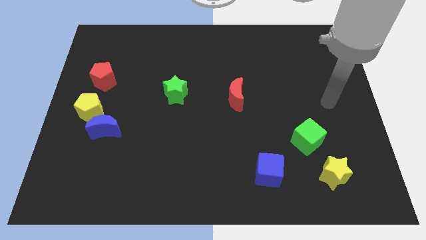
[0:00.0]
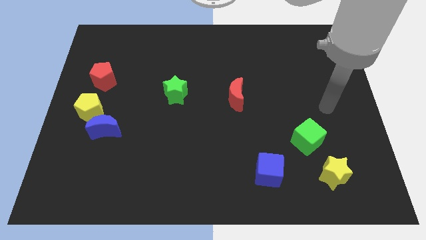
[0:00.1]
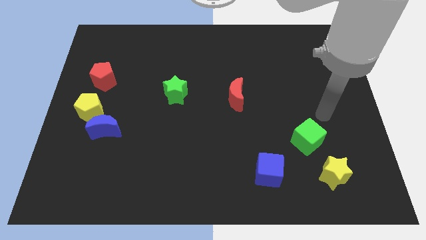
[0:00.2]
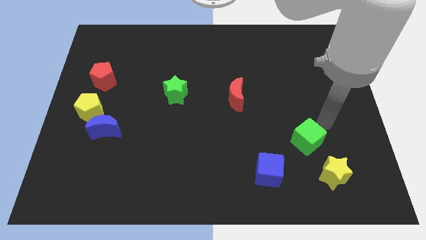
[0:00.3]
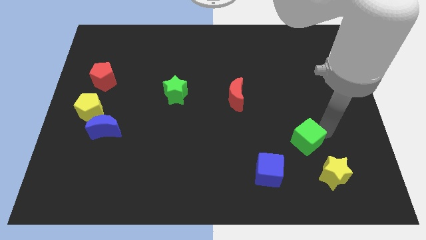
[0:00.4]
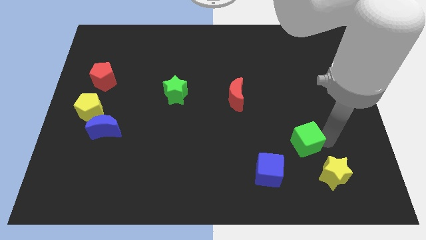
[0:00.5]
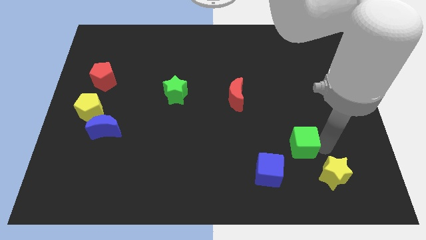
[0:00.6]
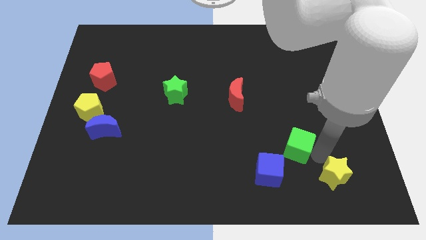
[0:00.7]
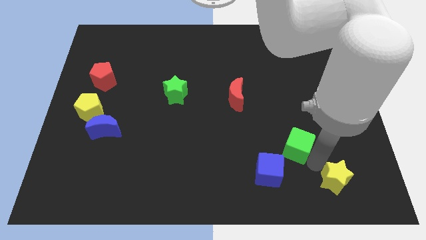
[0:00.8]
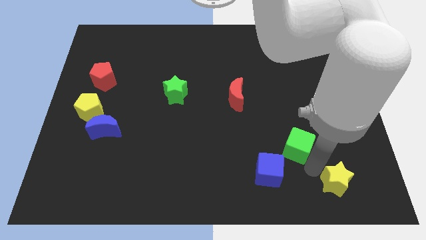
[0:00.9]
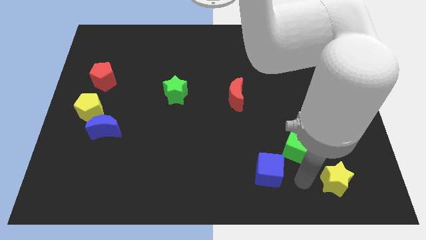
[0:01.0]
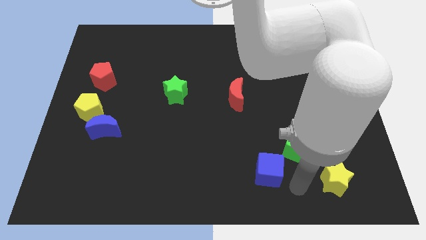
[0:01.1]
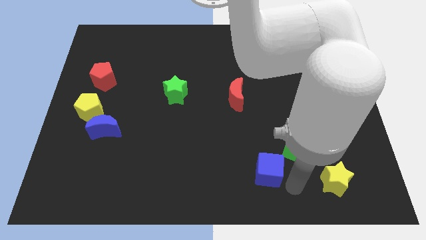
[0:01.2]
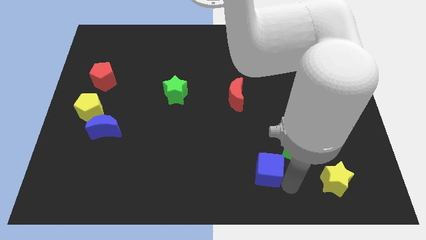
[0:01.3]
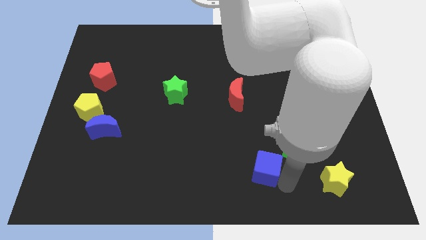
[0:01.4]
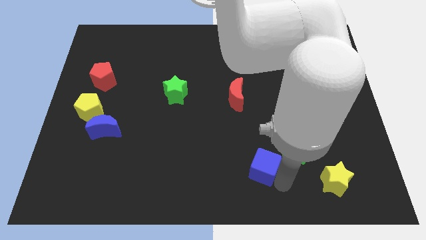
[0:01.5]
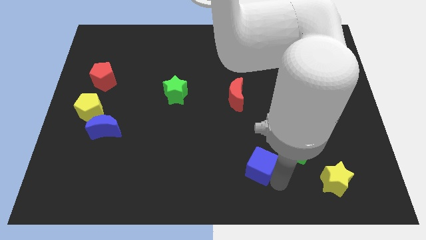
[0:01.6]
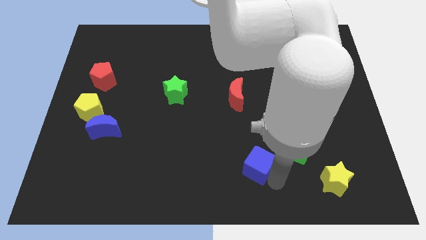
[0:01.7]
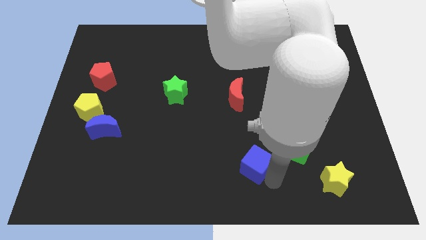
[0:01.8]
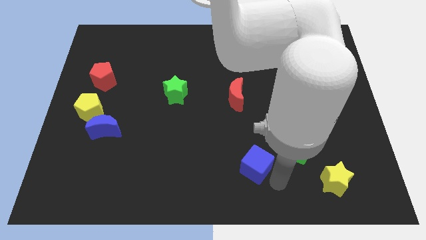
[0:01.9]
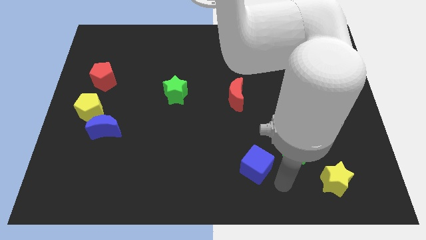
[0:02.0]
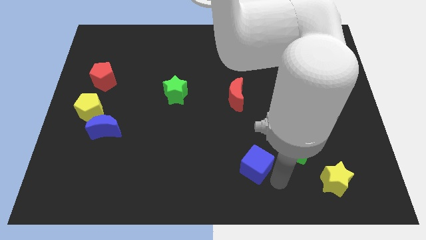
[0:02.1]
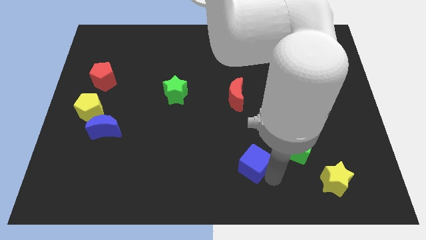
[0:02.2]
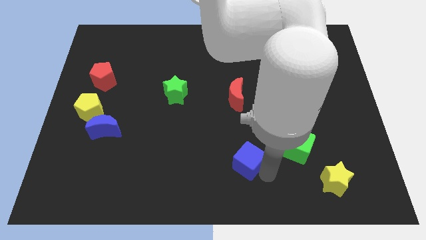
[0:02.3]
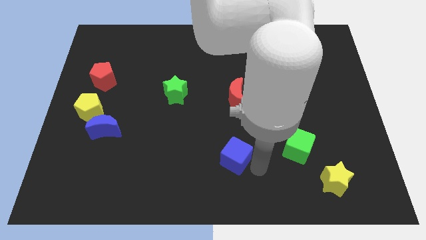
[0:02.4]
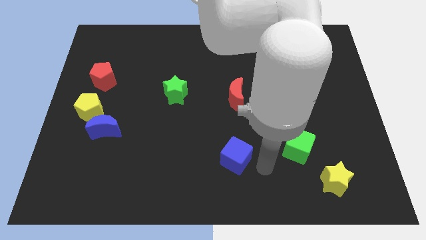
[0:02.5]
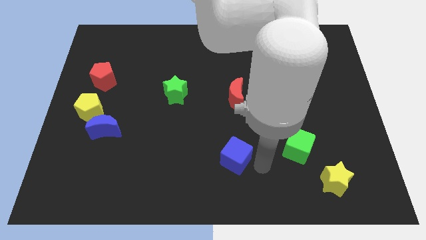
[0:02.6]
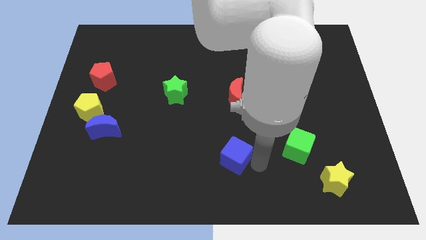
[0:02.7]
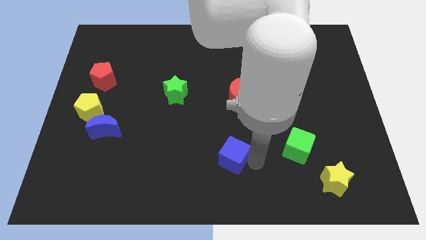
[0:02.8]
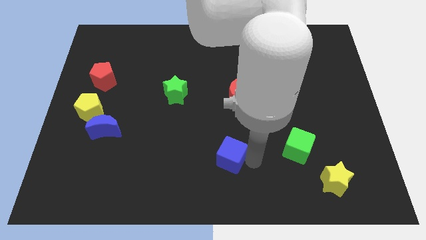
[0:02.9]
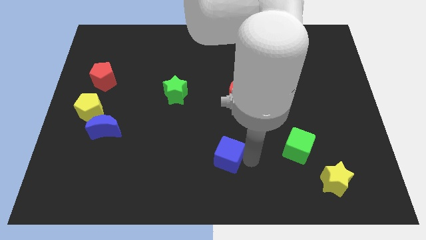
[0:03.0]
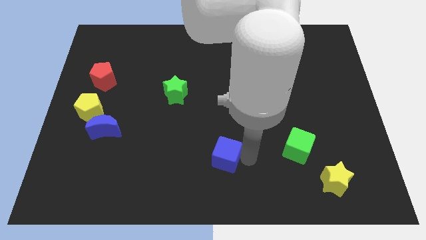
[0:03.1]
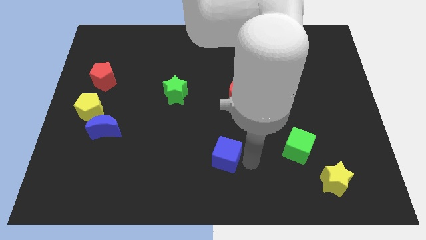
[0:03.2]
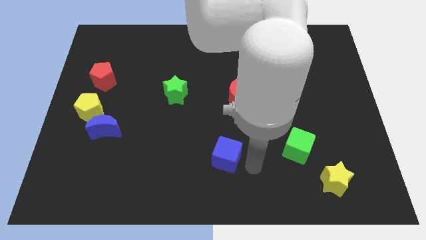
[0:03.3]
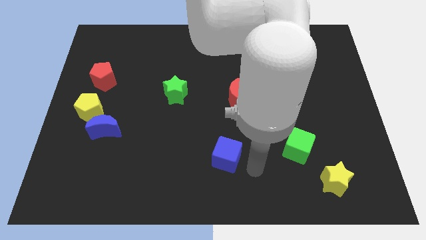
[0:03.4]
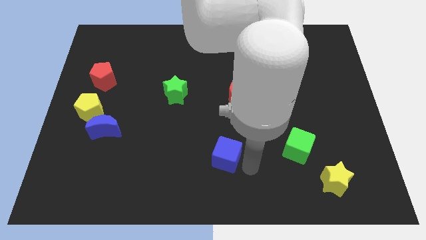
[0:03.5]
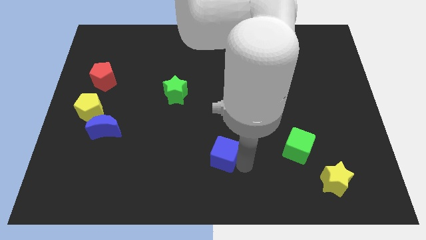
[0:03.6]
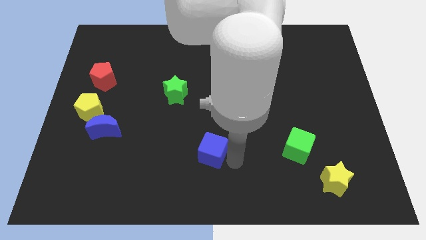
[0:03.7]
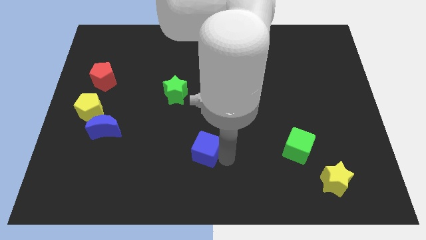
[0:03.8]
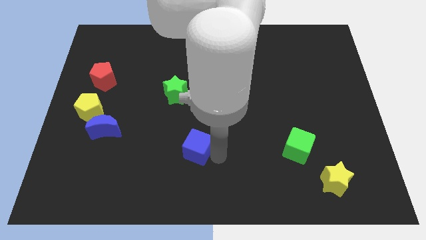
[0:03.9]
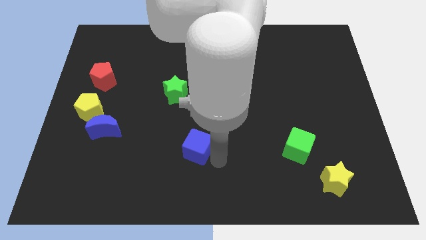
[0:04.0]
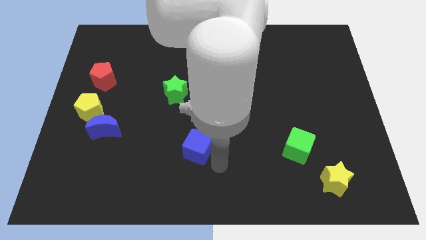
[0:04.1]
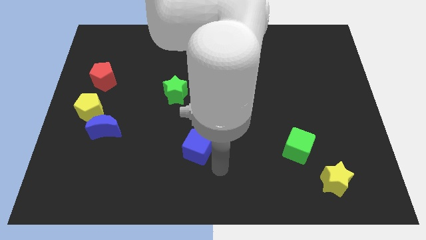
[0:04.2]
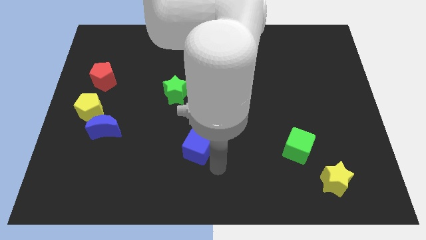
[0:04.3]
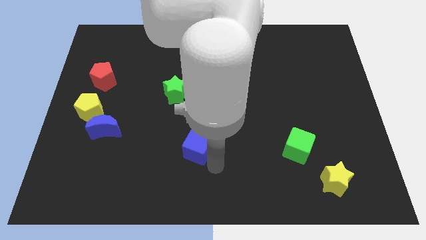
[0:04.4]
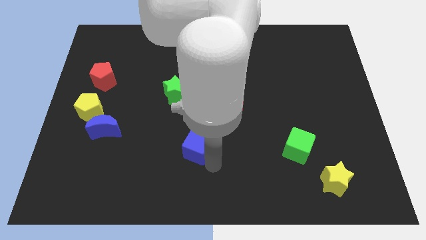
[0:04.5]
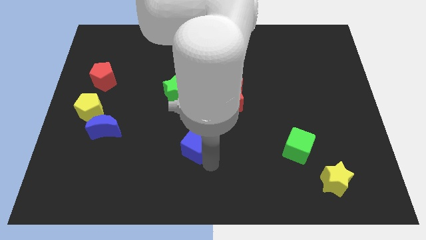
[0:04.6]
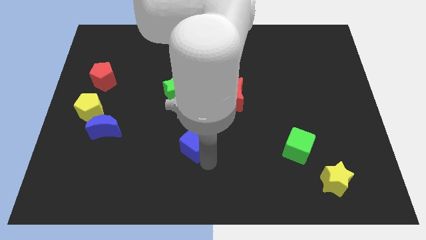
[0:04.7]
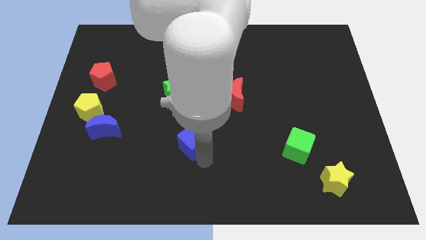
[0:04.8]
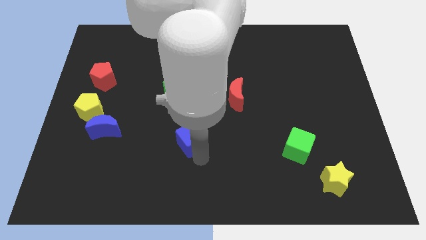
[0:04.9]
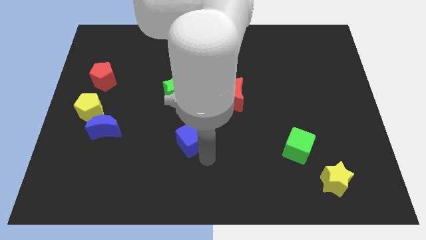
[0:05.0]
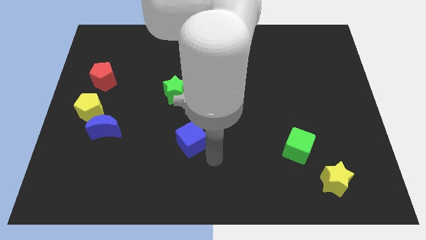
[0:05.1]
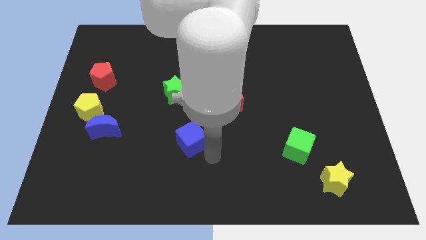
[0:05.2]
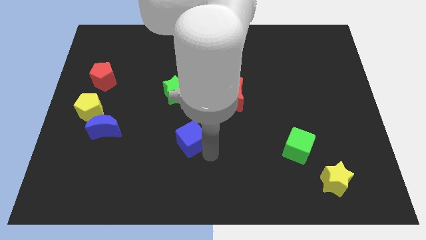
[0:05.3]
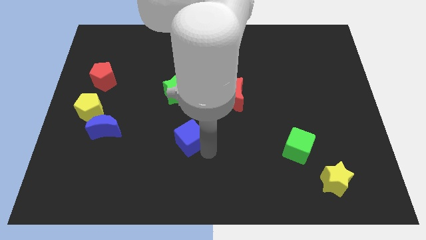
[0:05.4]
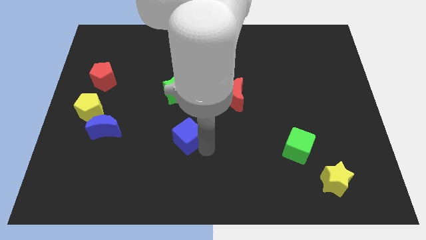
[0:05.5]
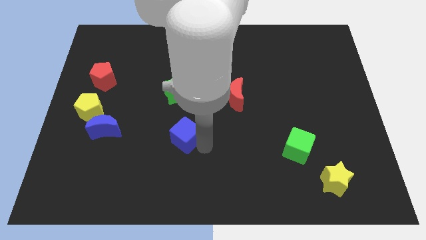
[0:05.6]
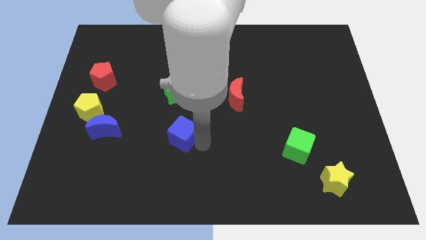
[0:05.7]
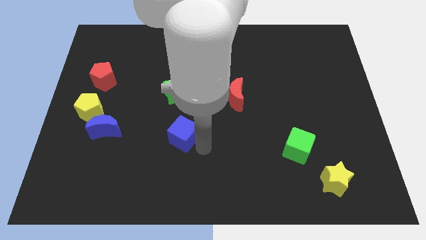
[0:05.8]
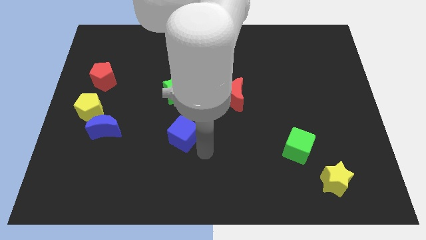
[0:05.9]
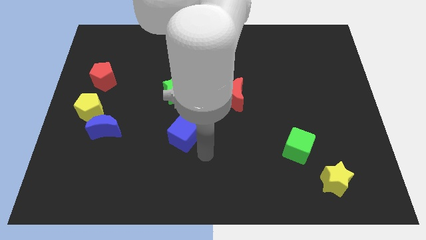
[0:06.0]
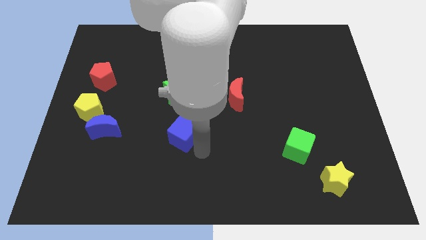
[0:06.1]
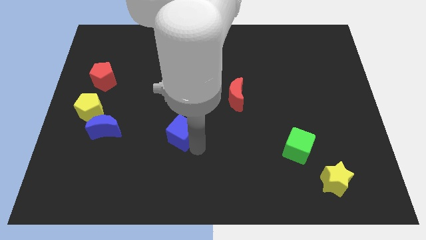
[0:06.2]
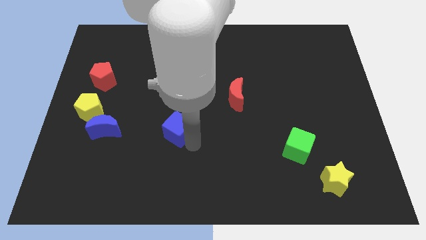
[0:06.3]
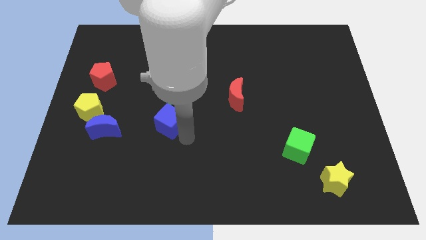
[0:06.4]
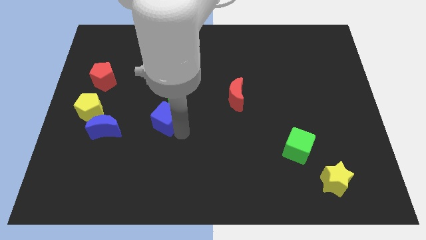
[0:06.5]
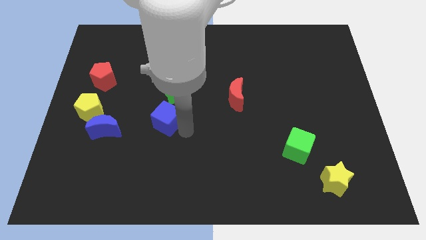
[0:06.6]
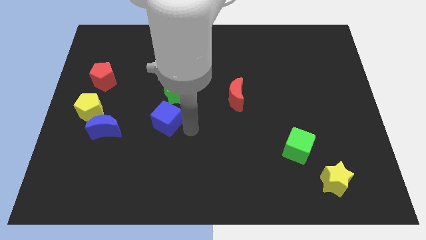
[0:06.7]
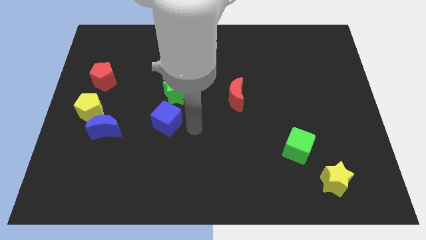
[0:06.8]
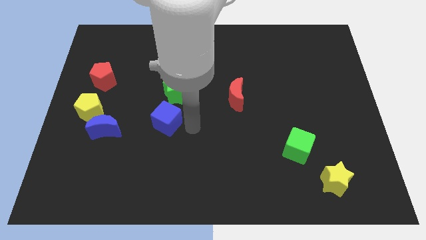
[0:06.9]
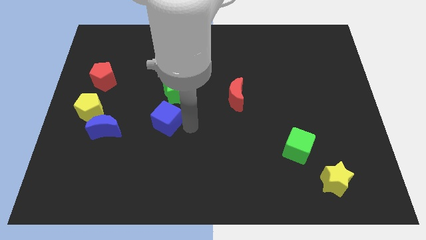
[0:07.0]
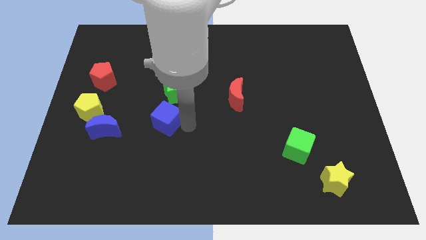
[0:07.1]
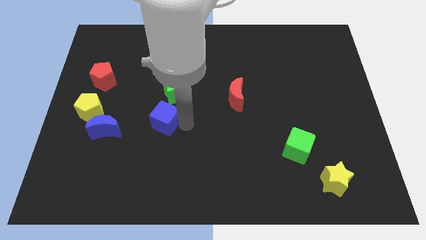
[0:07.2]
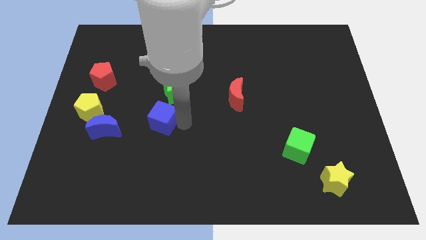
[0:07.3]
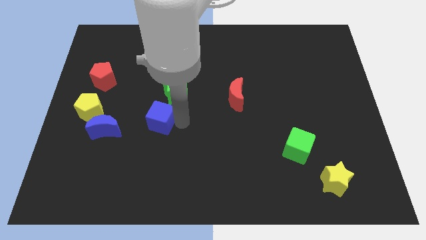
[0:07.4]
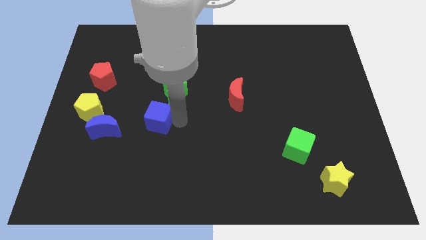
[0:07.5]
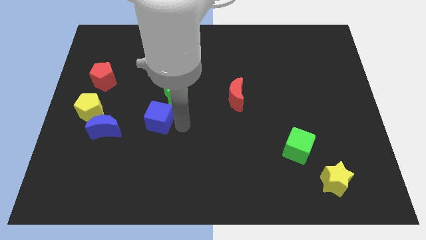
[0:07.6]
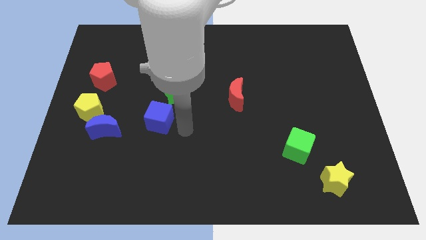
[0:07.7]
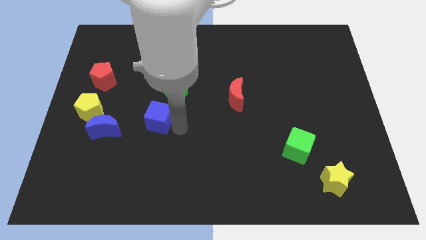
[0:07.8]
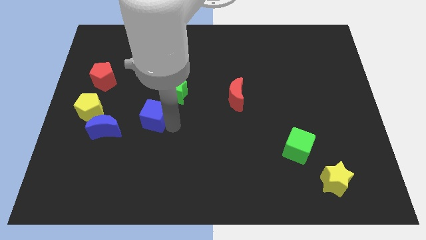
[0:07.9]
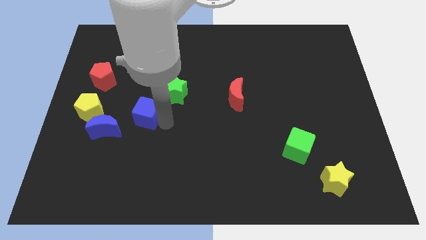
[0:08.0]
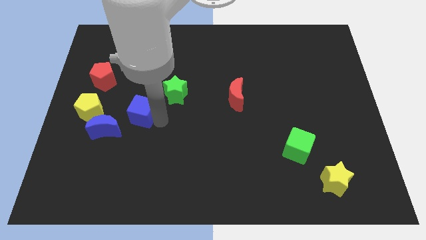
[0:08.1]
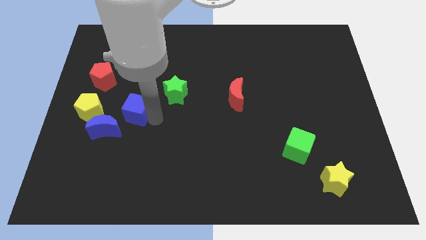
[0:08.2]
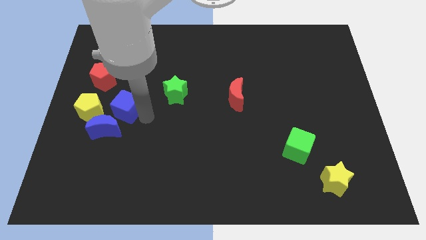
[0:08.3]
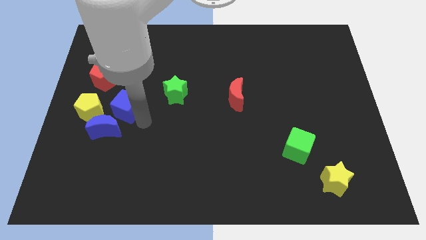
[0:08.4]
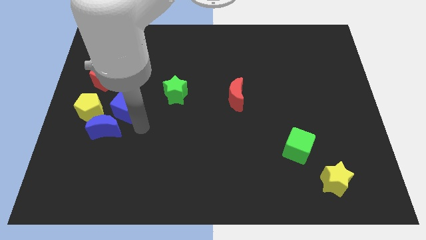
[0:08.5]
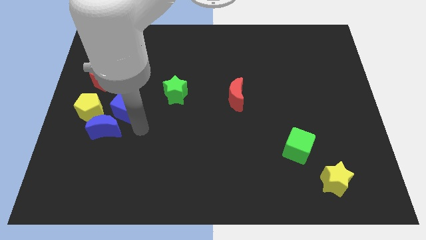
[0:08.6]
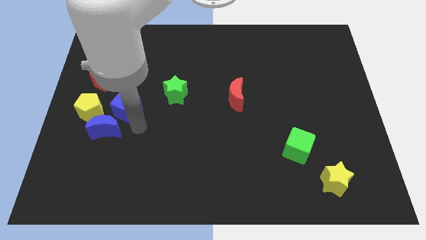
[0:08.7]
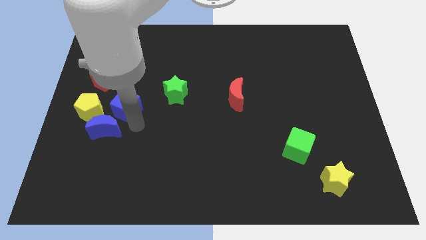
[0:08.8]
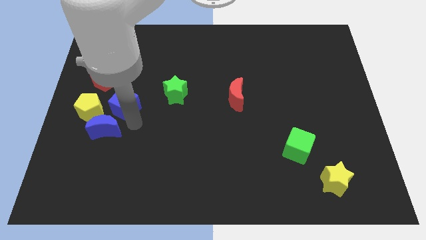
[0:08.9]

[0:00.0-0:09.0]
move the blue cube to the top right of the yellow pentagon
